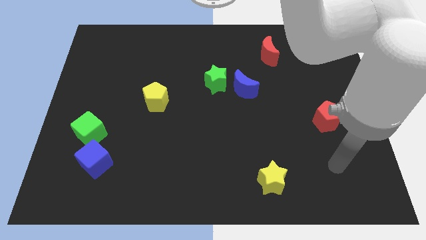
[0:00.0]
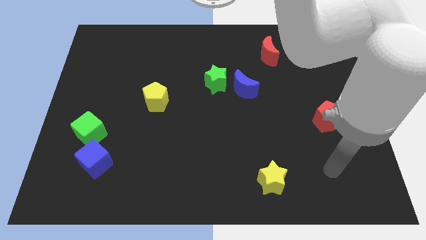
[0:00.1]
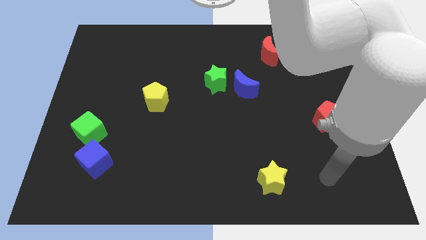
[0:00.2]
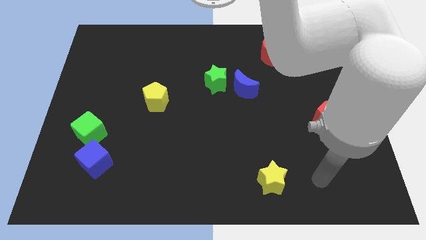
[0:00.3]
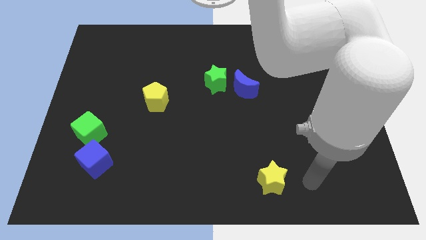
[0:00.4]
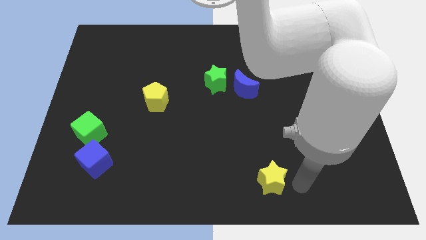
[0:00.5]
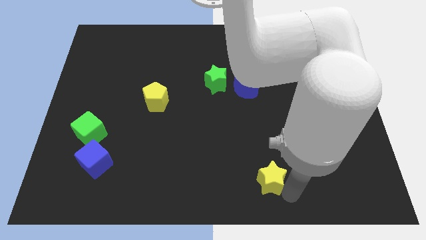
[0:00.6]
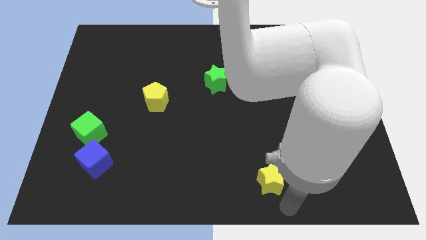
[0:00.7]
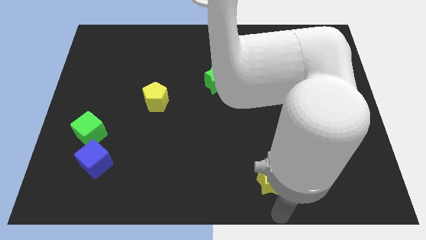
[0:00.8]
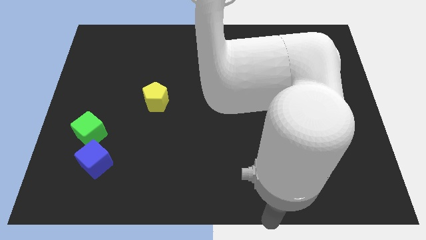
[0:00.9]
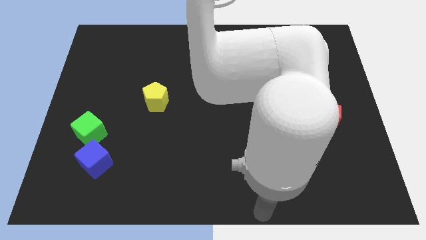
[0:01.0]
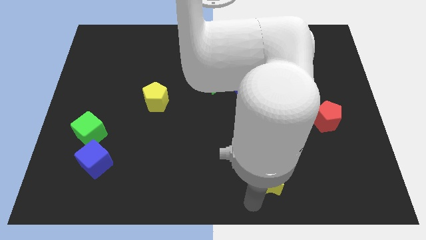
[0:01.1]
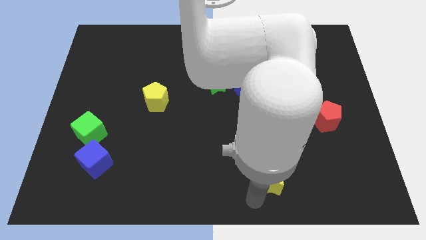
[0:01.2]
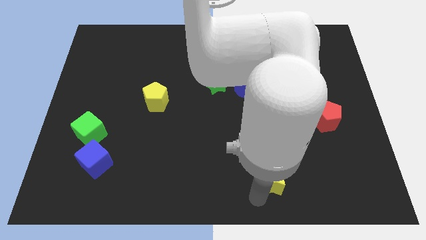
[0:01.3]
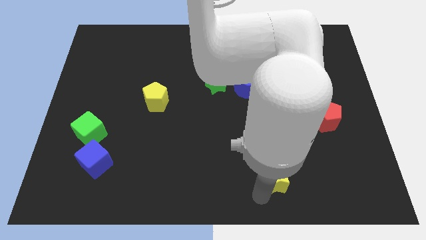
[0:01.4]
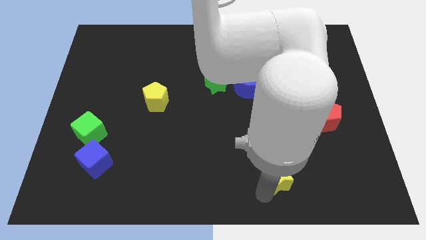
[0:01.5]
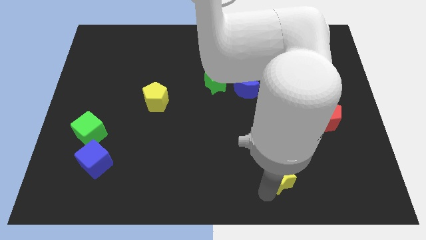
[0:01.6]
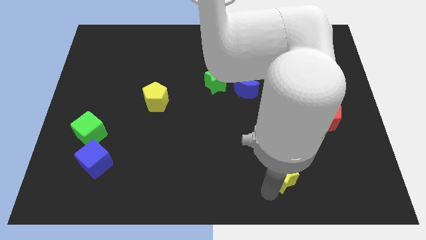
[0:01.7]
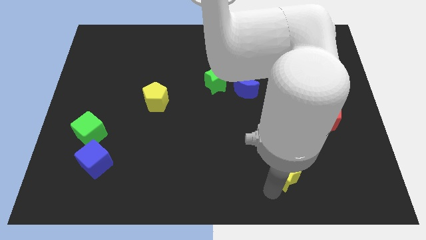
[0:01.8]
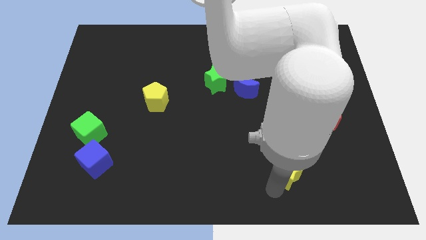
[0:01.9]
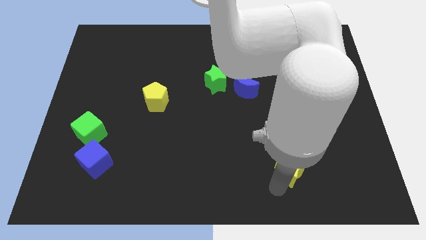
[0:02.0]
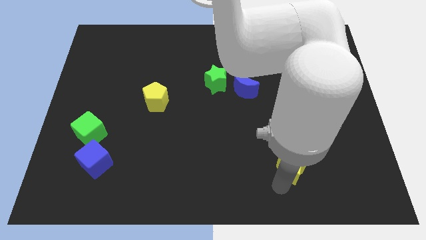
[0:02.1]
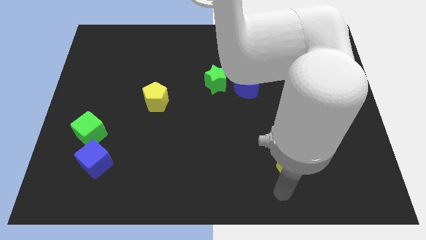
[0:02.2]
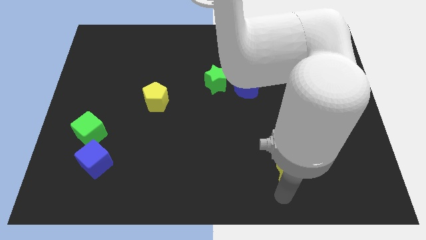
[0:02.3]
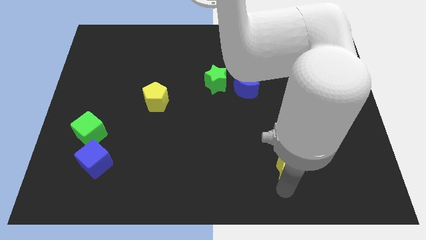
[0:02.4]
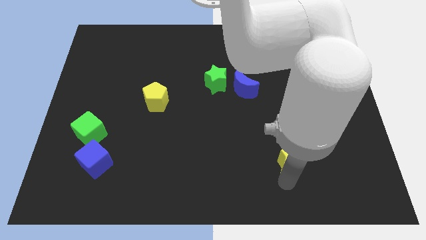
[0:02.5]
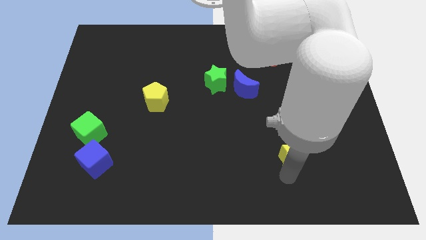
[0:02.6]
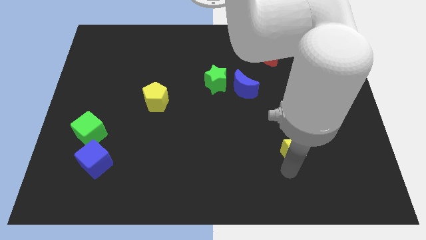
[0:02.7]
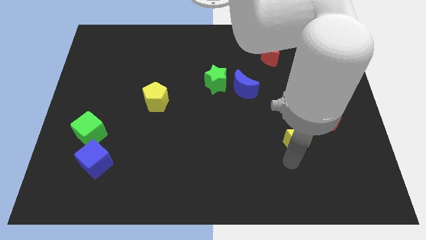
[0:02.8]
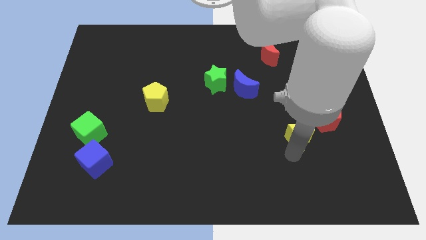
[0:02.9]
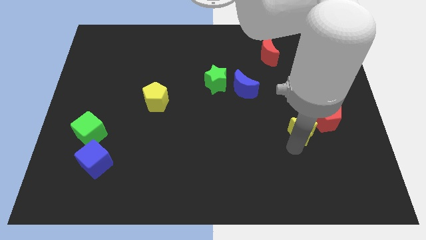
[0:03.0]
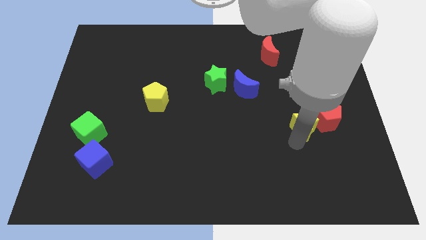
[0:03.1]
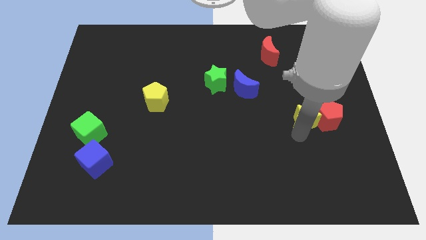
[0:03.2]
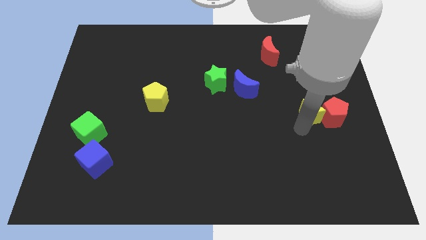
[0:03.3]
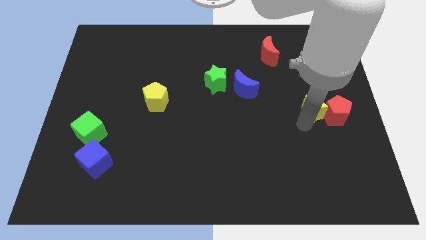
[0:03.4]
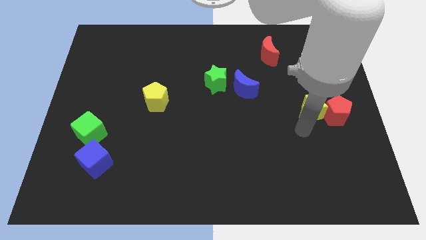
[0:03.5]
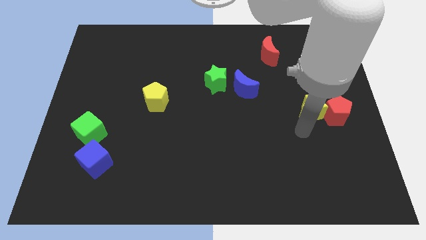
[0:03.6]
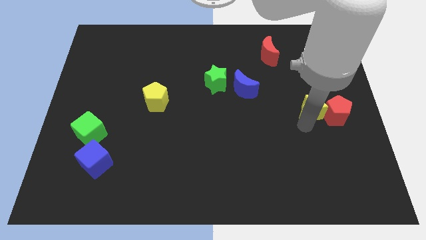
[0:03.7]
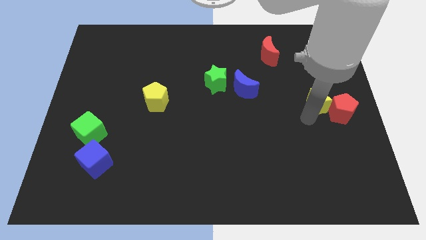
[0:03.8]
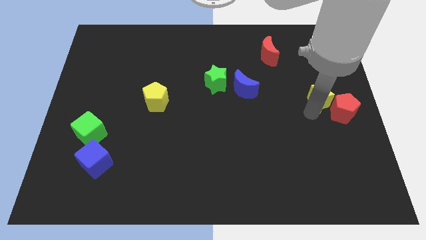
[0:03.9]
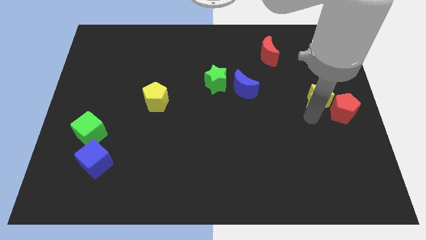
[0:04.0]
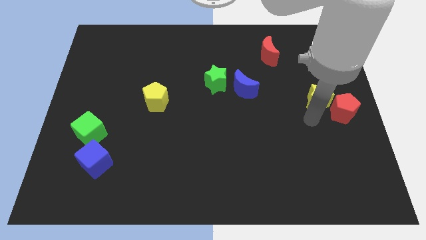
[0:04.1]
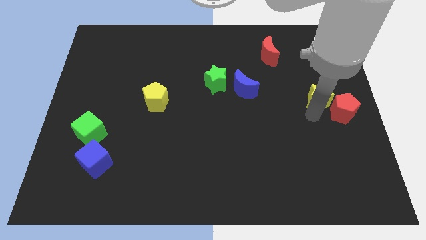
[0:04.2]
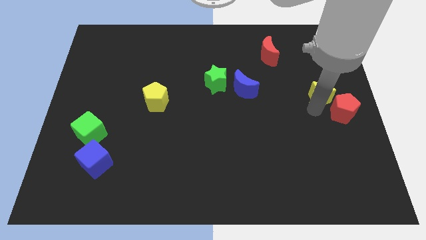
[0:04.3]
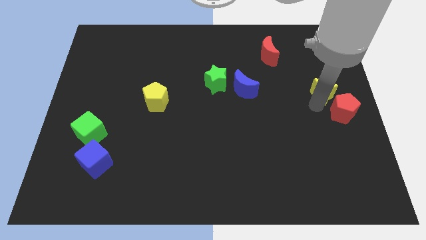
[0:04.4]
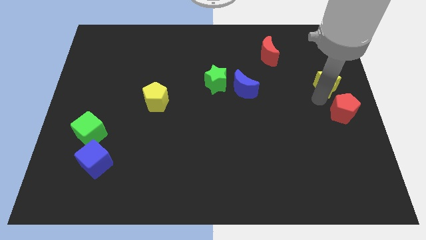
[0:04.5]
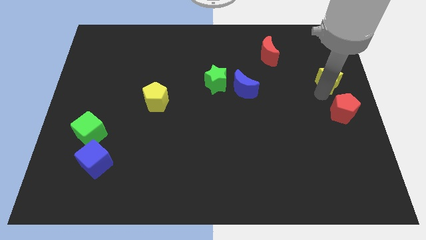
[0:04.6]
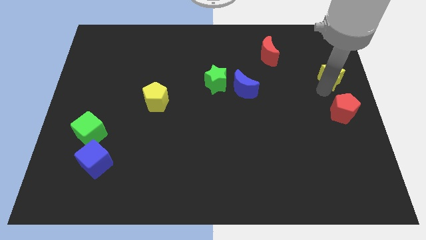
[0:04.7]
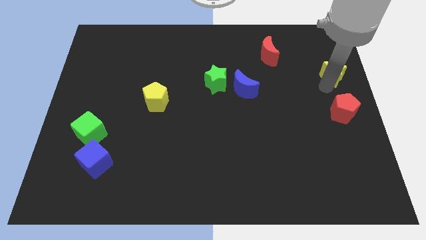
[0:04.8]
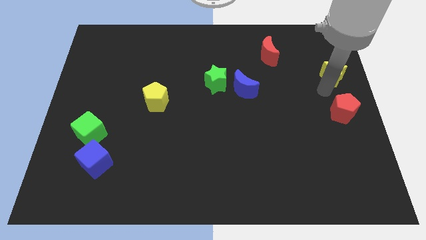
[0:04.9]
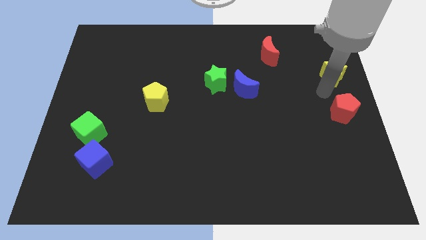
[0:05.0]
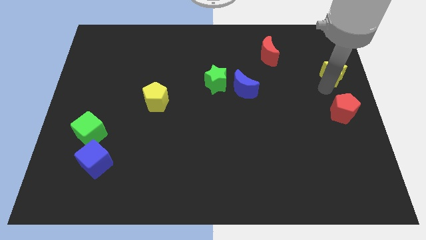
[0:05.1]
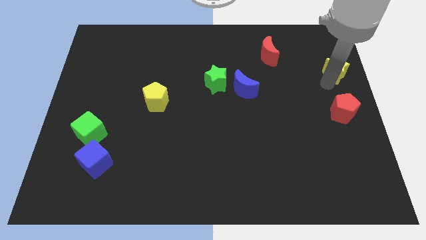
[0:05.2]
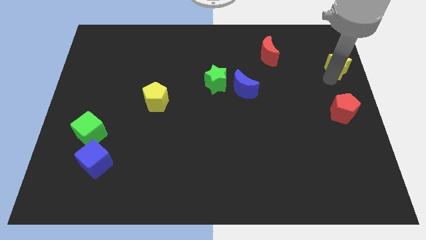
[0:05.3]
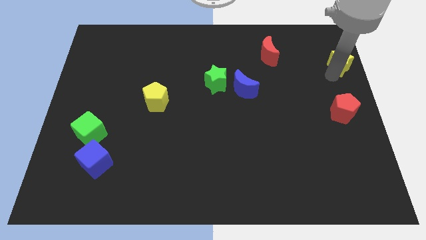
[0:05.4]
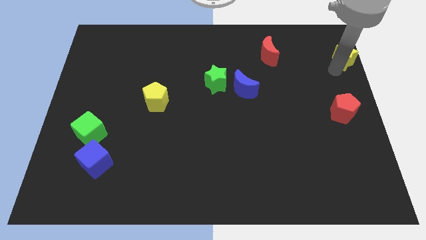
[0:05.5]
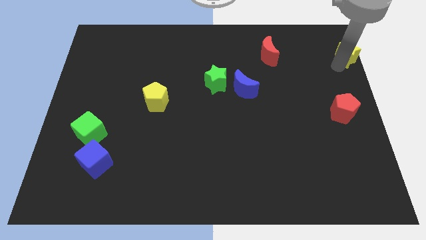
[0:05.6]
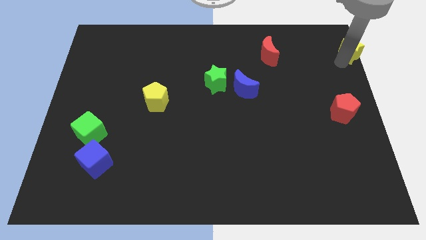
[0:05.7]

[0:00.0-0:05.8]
push the yellow star to the upper right corner

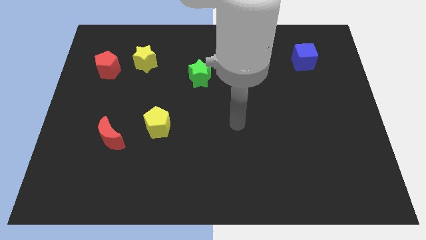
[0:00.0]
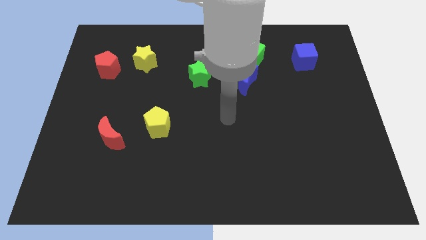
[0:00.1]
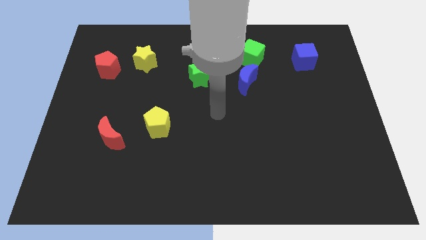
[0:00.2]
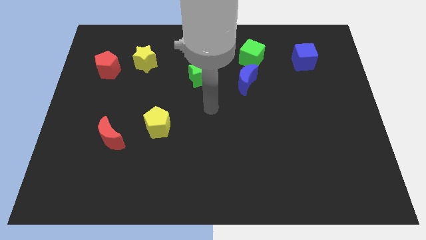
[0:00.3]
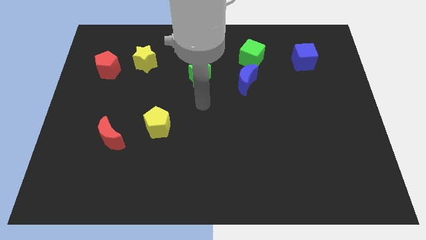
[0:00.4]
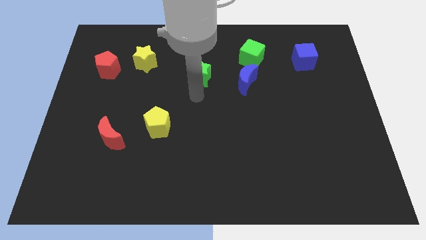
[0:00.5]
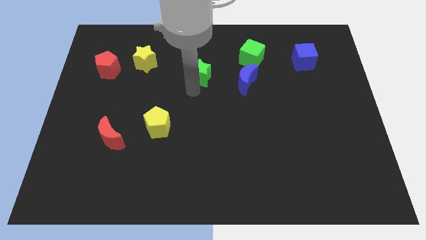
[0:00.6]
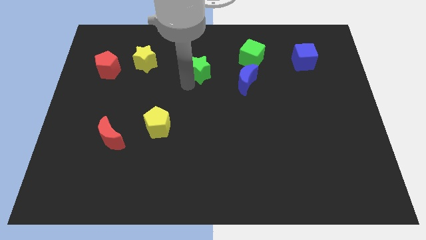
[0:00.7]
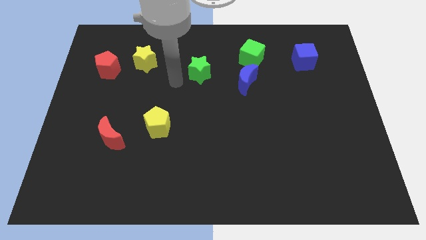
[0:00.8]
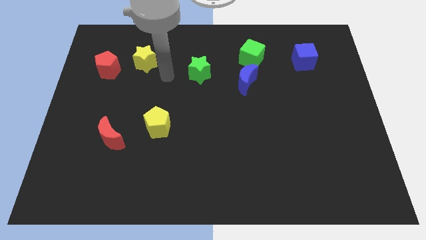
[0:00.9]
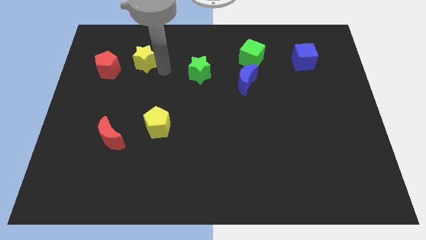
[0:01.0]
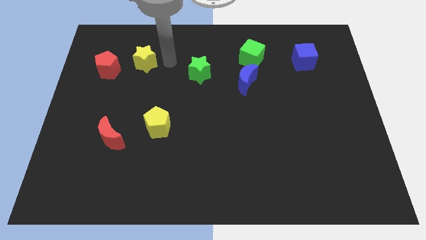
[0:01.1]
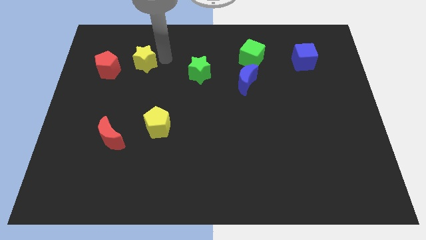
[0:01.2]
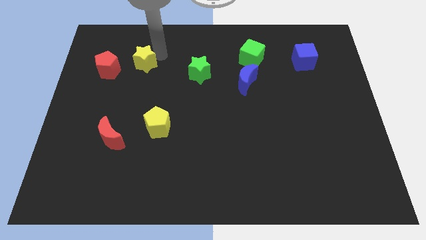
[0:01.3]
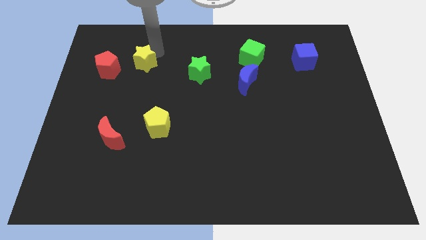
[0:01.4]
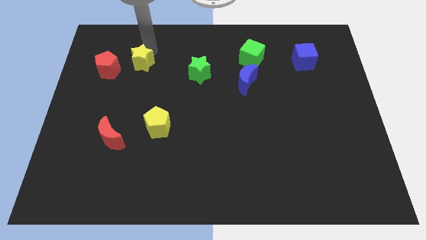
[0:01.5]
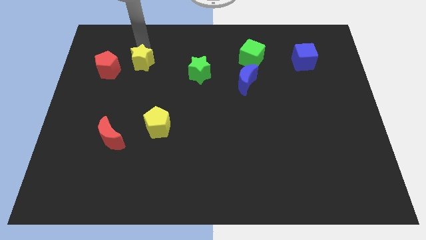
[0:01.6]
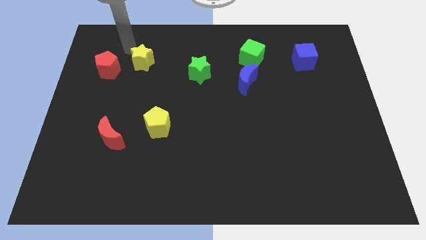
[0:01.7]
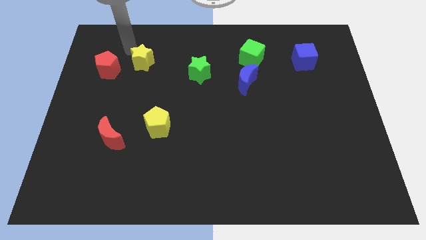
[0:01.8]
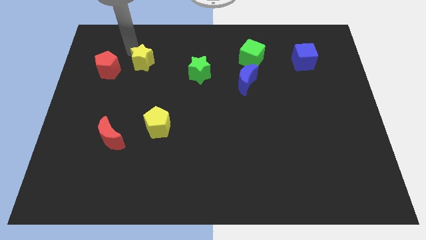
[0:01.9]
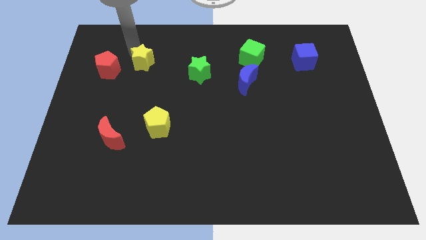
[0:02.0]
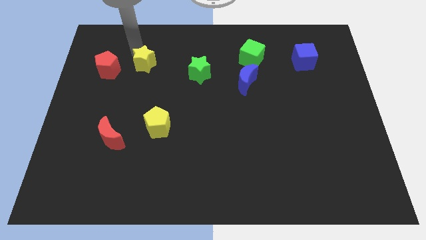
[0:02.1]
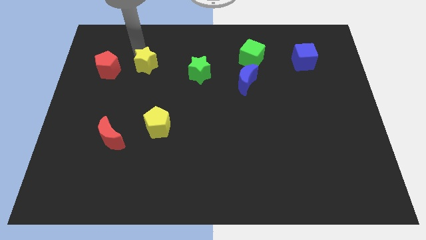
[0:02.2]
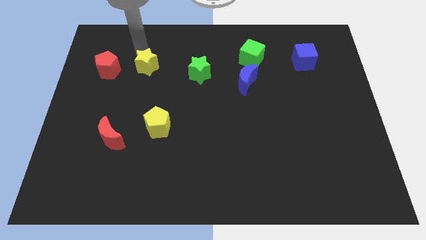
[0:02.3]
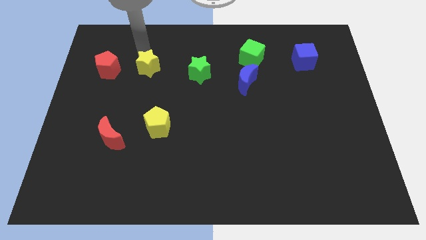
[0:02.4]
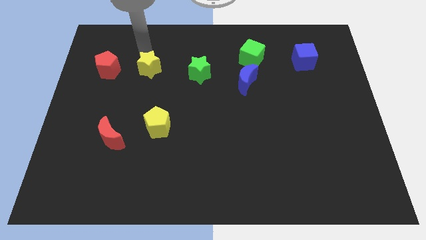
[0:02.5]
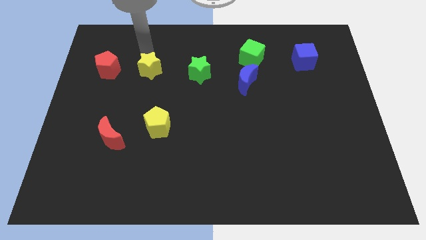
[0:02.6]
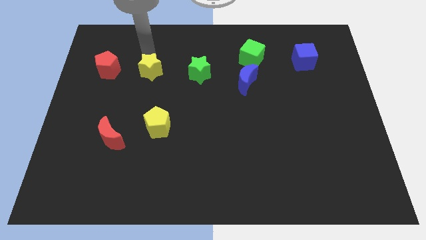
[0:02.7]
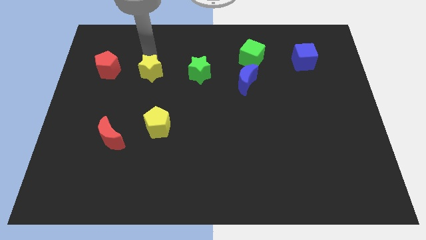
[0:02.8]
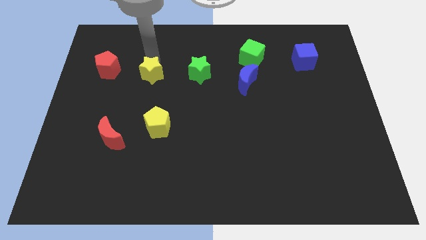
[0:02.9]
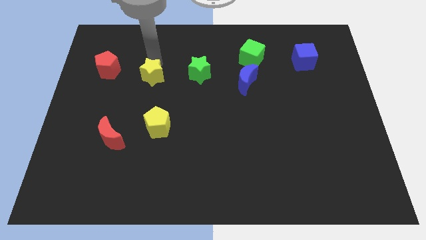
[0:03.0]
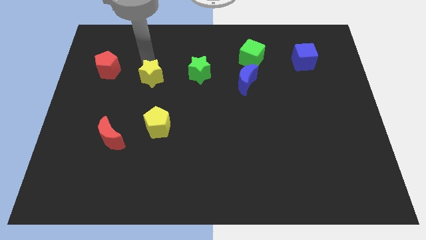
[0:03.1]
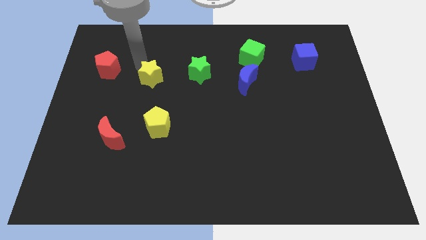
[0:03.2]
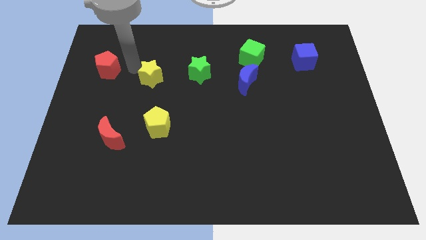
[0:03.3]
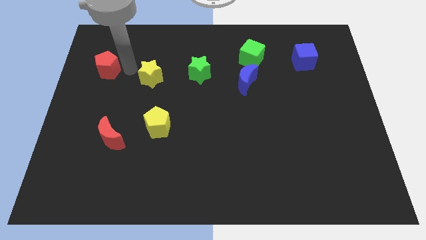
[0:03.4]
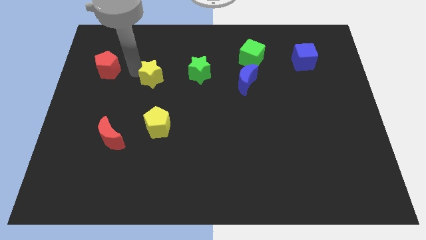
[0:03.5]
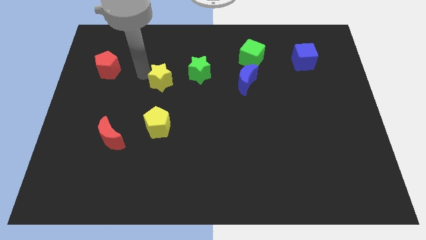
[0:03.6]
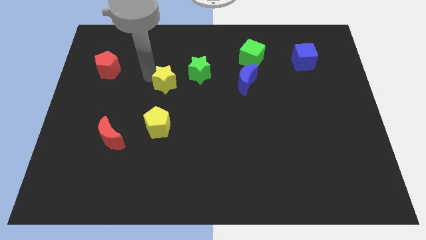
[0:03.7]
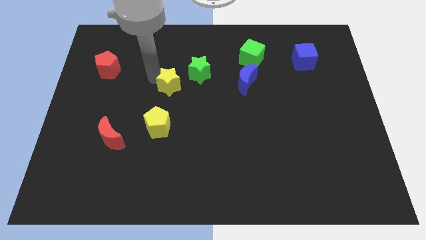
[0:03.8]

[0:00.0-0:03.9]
move the yellow star to the middle
